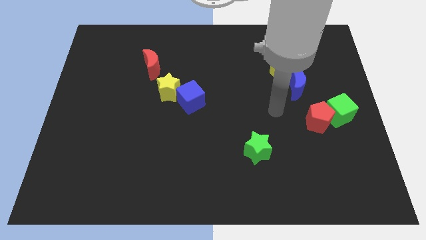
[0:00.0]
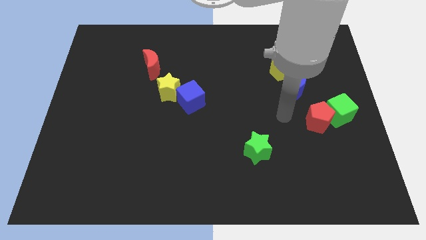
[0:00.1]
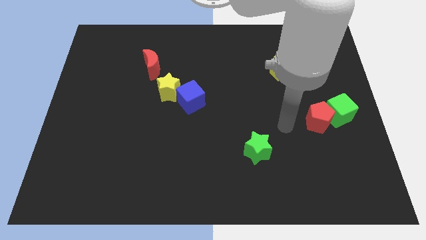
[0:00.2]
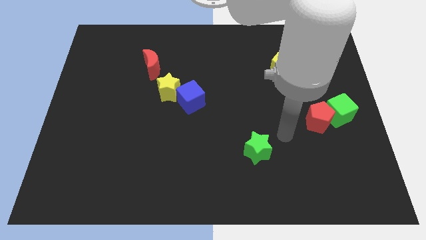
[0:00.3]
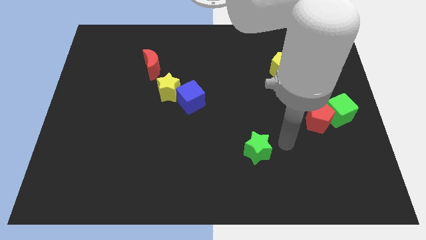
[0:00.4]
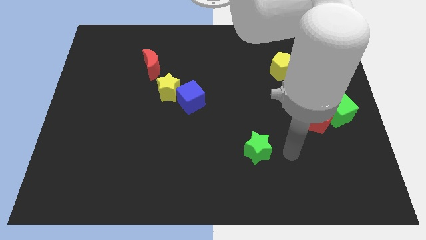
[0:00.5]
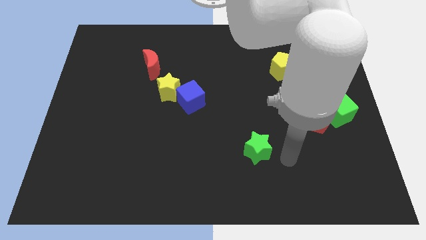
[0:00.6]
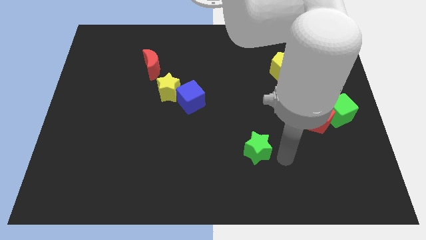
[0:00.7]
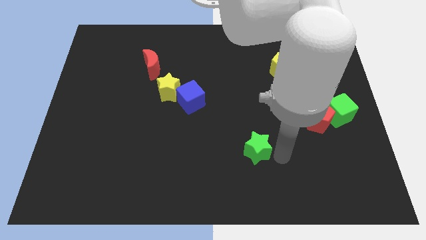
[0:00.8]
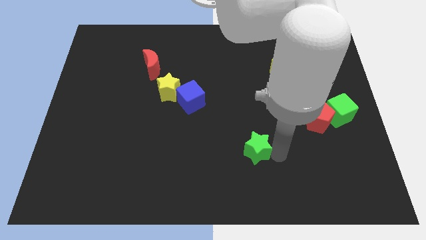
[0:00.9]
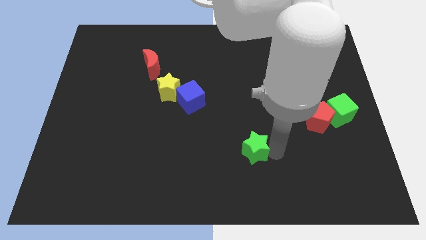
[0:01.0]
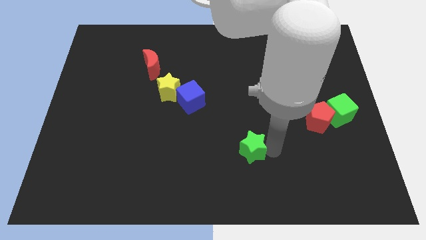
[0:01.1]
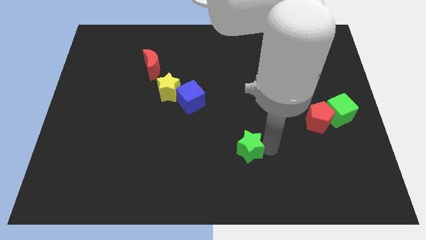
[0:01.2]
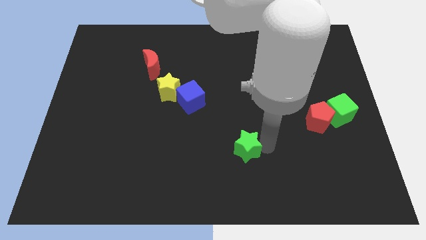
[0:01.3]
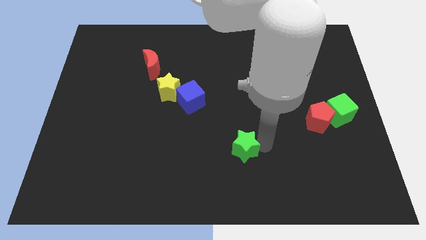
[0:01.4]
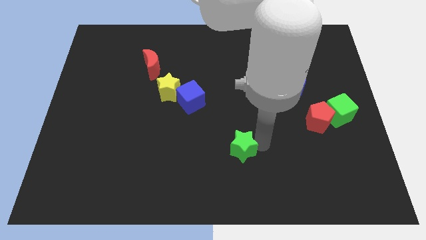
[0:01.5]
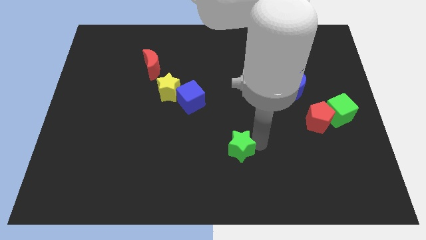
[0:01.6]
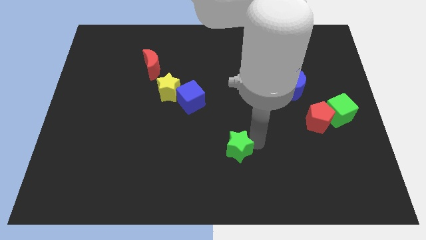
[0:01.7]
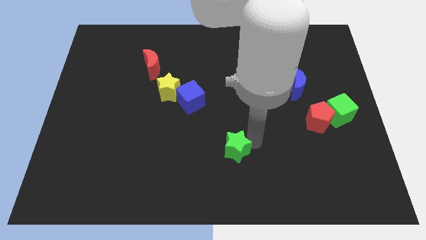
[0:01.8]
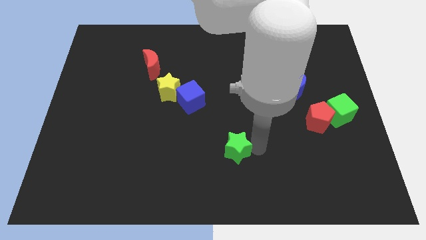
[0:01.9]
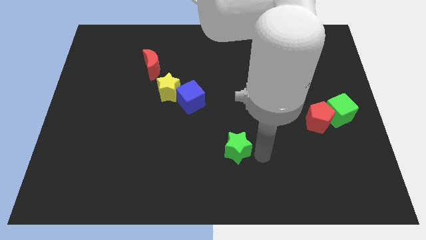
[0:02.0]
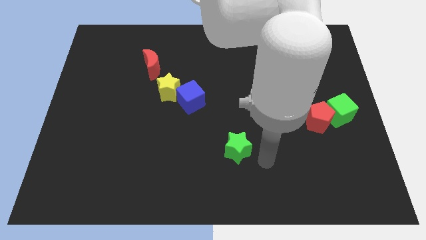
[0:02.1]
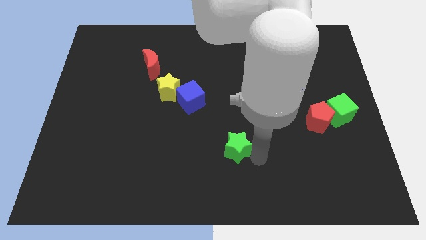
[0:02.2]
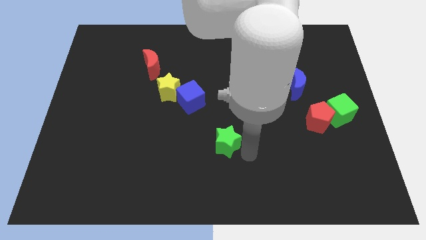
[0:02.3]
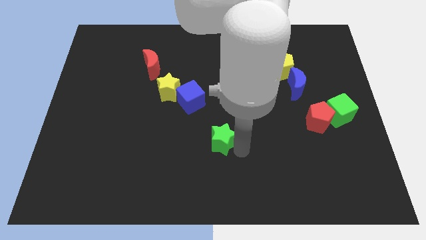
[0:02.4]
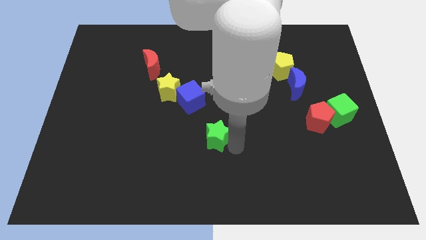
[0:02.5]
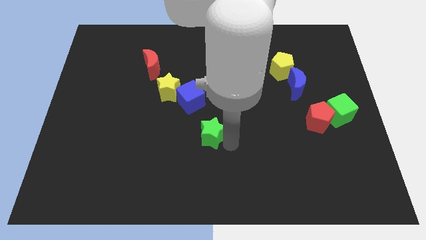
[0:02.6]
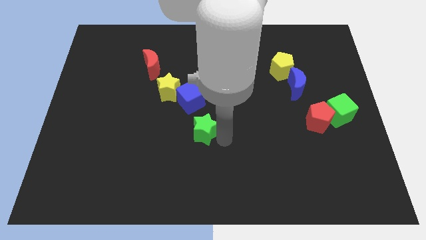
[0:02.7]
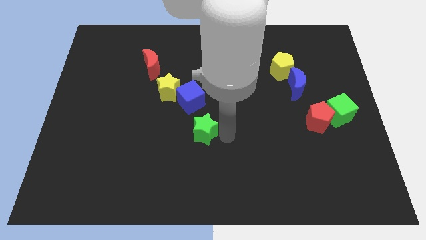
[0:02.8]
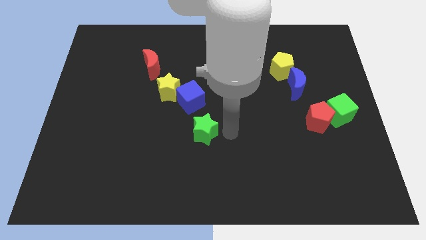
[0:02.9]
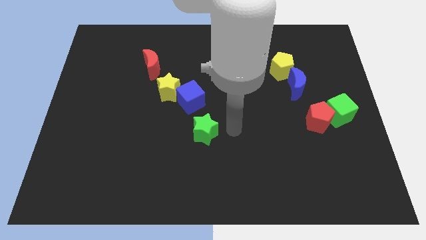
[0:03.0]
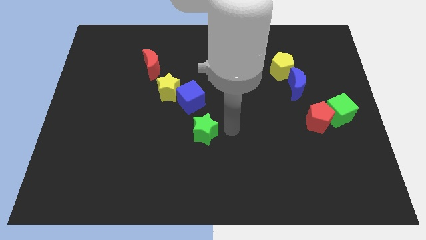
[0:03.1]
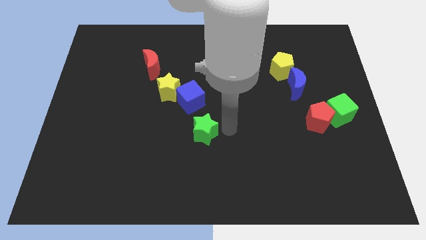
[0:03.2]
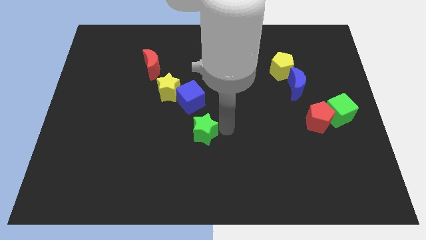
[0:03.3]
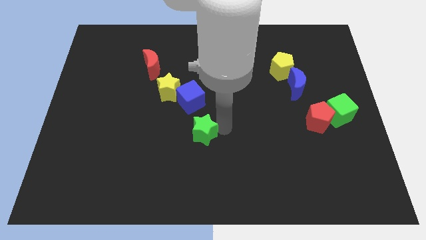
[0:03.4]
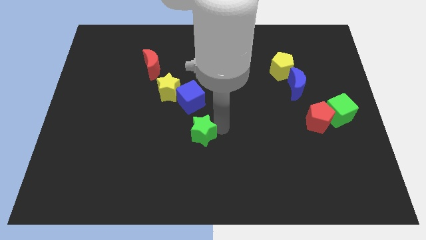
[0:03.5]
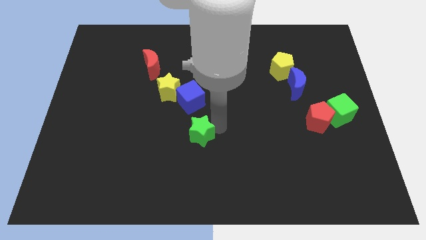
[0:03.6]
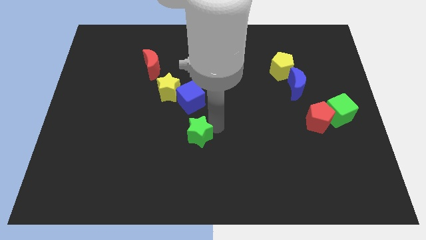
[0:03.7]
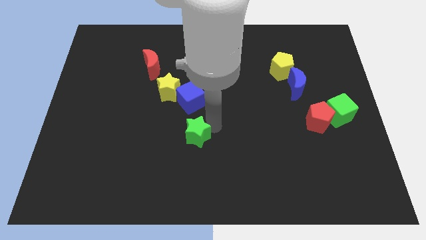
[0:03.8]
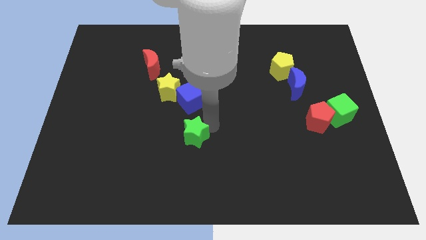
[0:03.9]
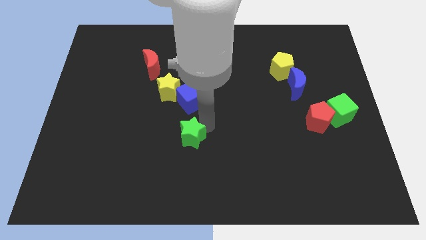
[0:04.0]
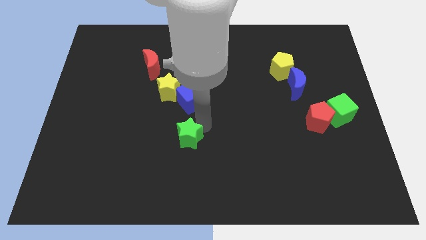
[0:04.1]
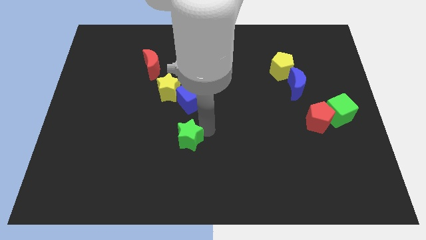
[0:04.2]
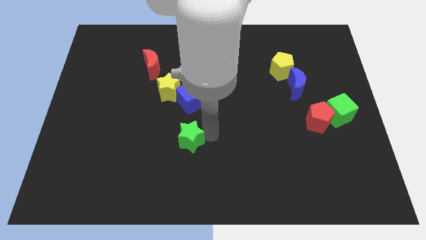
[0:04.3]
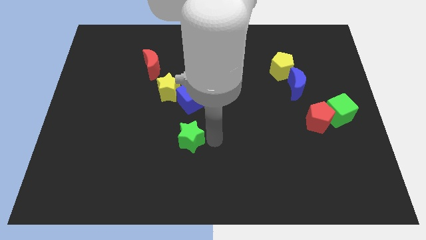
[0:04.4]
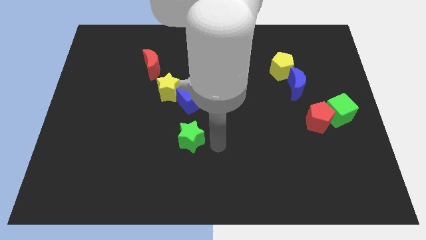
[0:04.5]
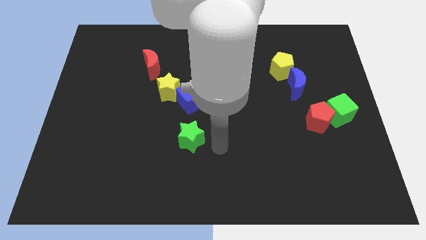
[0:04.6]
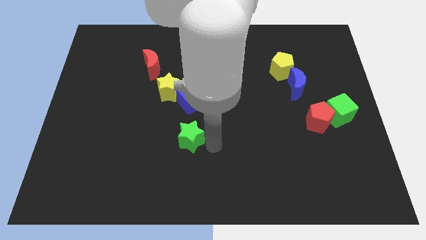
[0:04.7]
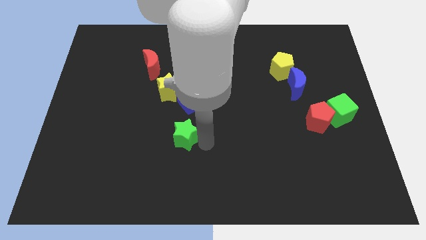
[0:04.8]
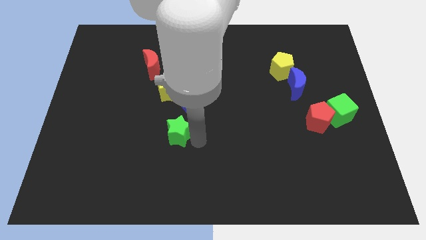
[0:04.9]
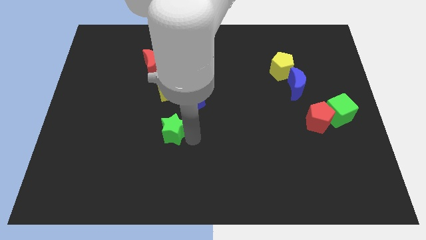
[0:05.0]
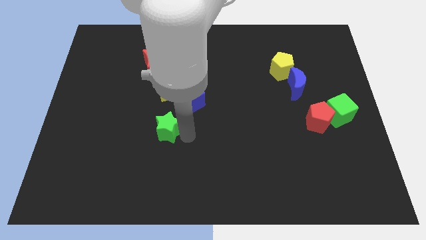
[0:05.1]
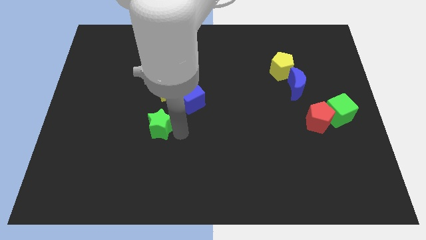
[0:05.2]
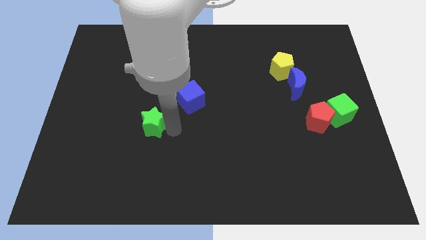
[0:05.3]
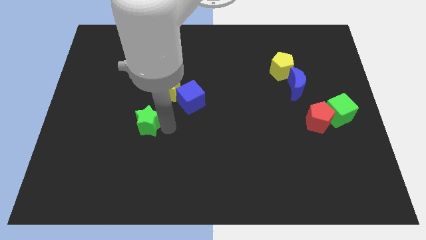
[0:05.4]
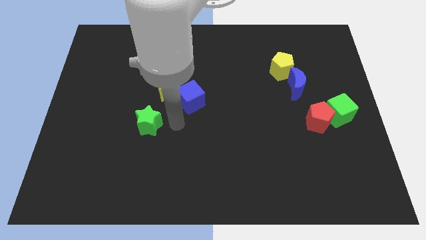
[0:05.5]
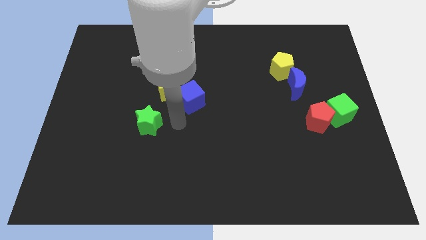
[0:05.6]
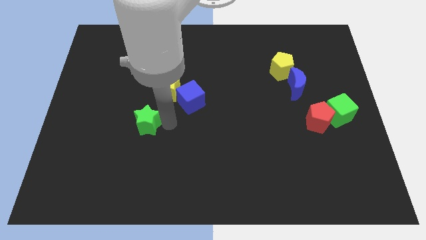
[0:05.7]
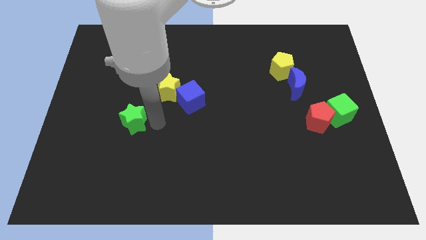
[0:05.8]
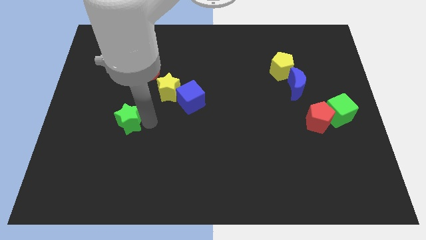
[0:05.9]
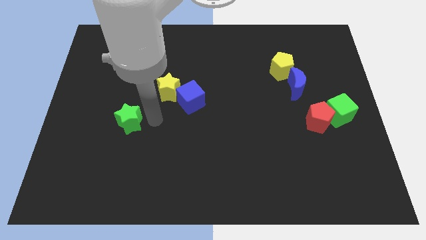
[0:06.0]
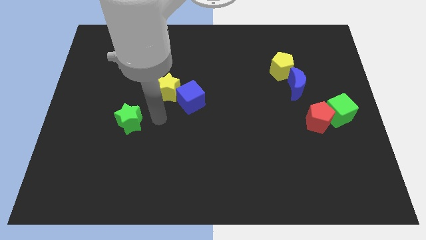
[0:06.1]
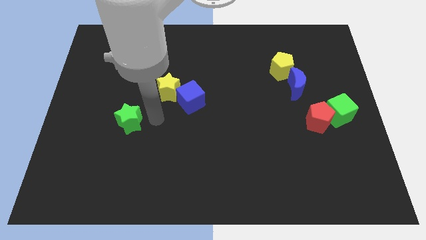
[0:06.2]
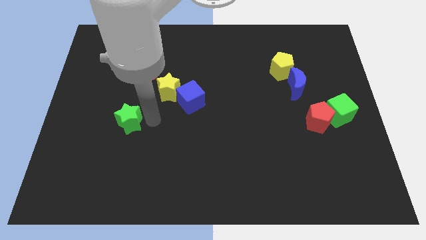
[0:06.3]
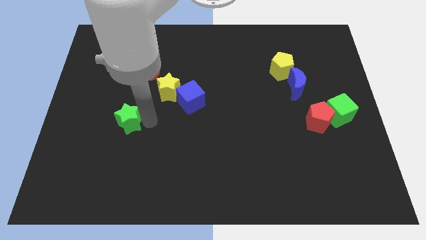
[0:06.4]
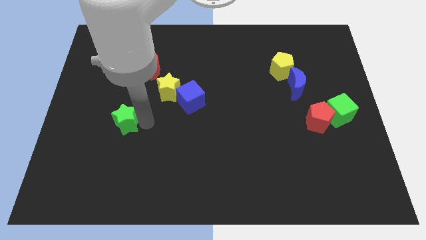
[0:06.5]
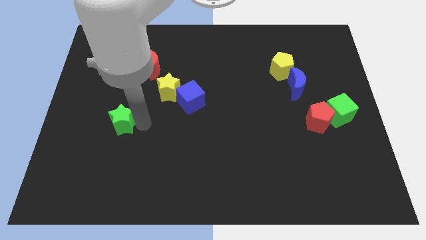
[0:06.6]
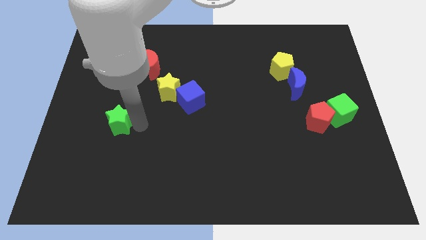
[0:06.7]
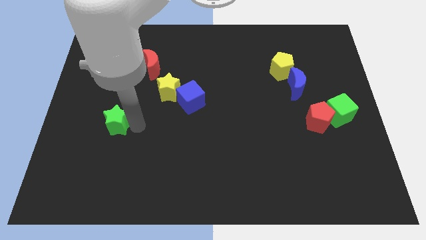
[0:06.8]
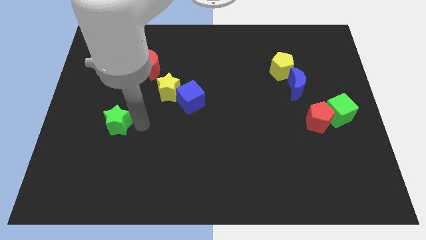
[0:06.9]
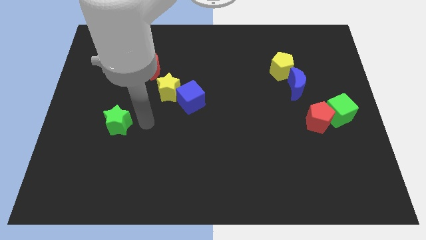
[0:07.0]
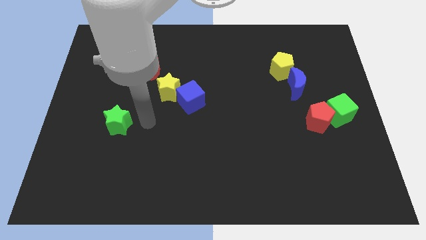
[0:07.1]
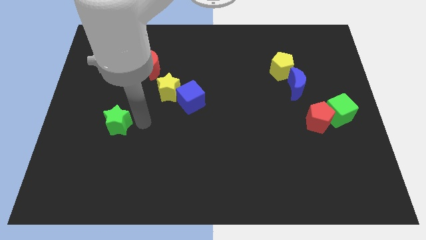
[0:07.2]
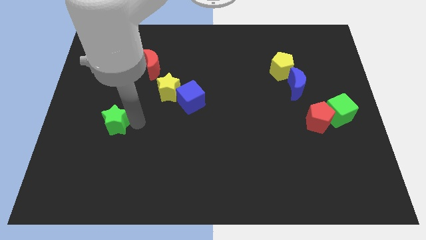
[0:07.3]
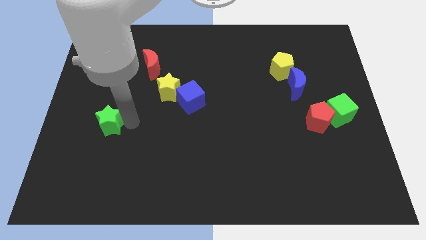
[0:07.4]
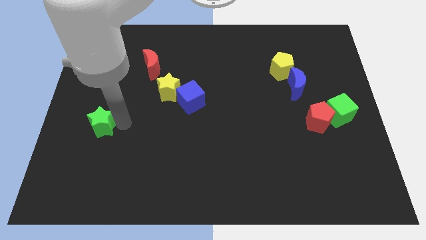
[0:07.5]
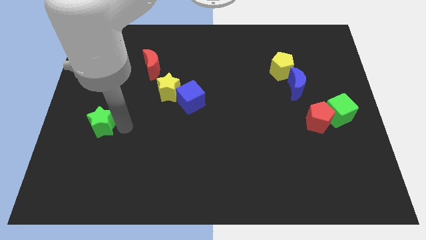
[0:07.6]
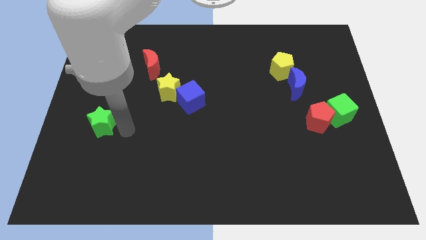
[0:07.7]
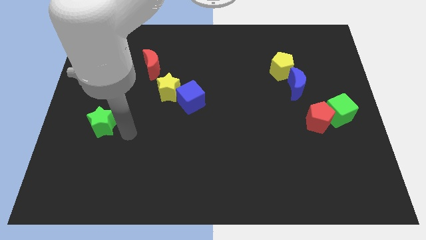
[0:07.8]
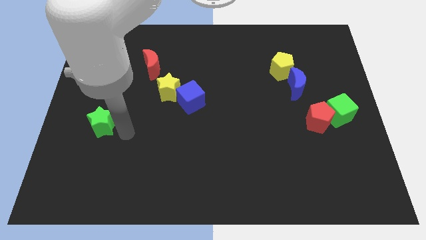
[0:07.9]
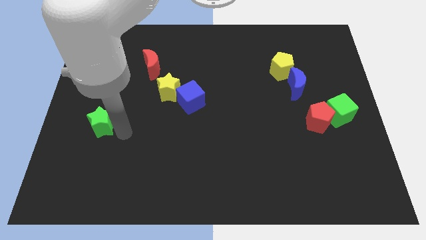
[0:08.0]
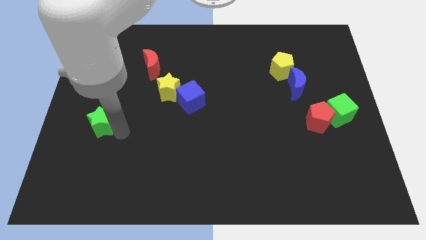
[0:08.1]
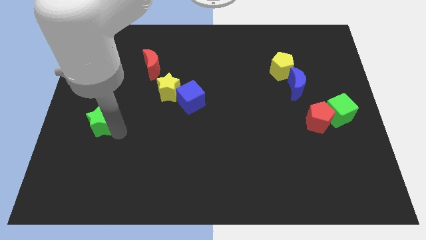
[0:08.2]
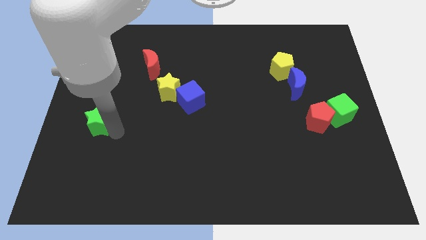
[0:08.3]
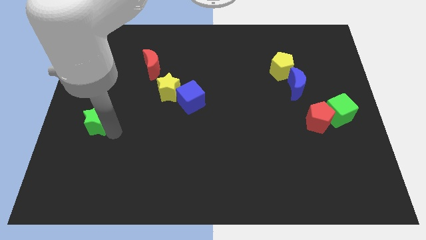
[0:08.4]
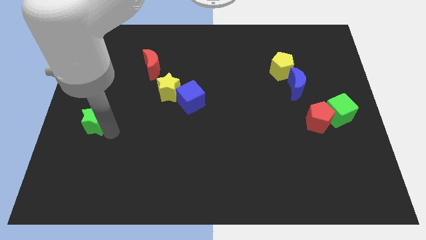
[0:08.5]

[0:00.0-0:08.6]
move the green star to the center left
